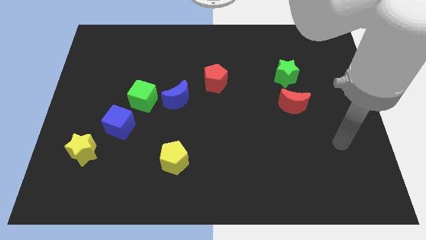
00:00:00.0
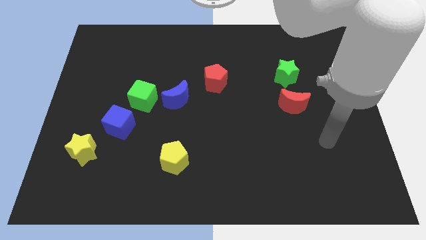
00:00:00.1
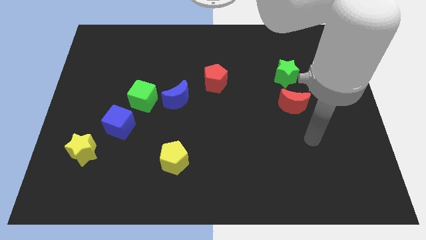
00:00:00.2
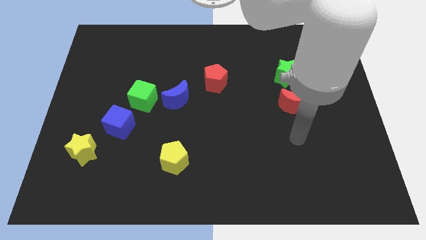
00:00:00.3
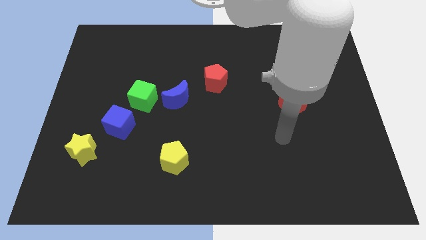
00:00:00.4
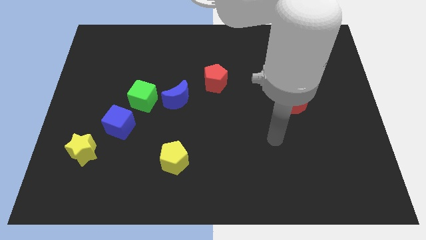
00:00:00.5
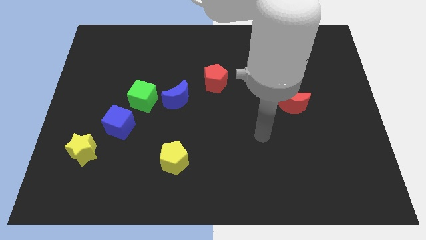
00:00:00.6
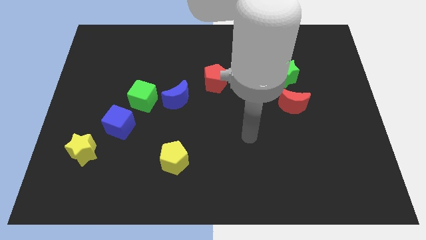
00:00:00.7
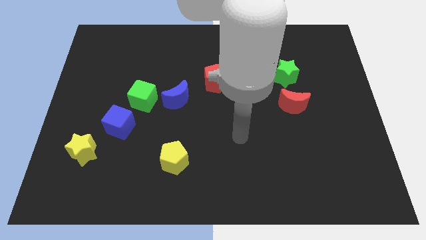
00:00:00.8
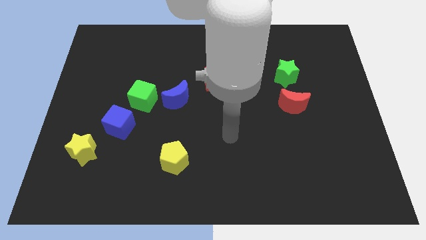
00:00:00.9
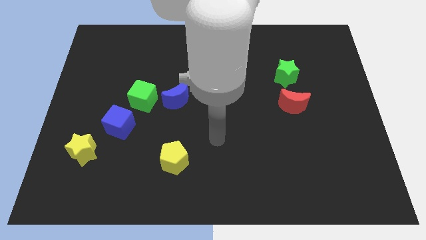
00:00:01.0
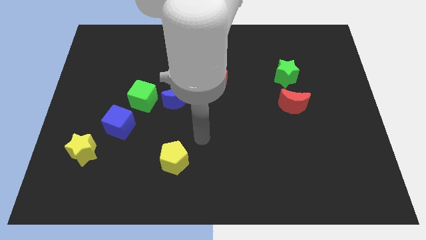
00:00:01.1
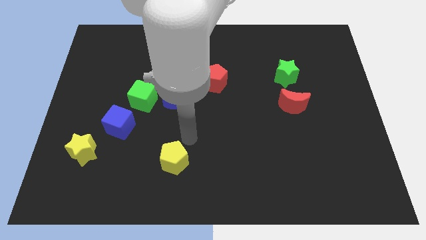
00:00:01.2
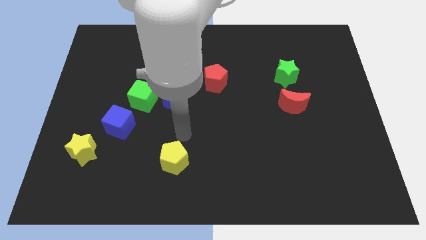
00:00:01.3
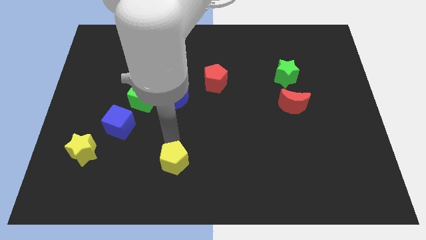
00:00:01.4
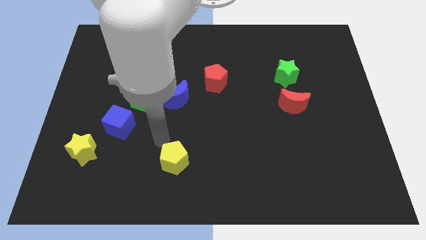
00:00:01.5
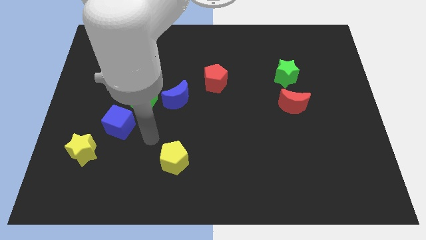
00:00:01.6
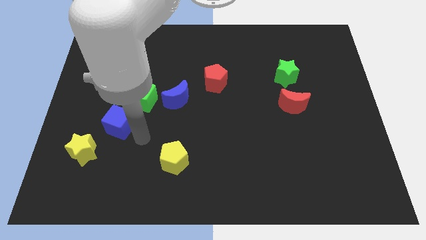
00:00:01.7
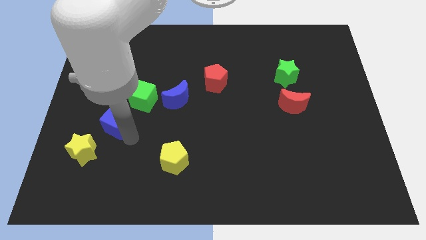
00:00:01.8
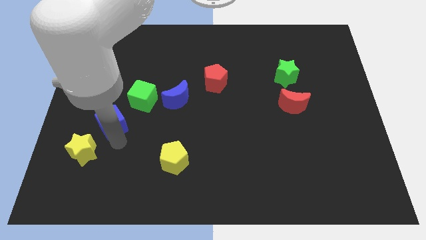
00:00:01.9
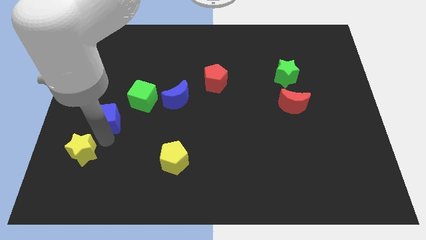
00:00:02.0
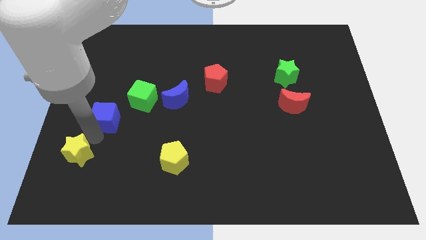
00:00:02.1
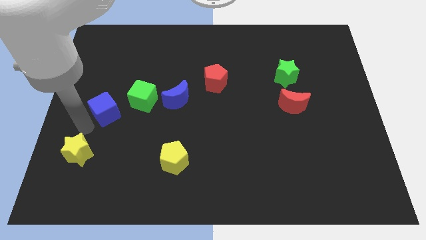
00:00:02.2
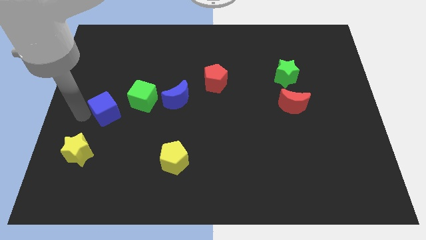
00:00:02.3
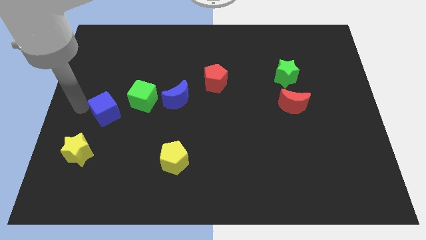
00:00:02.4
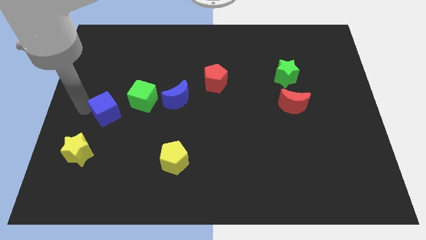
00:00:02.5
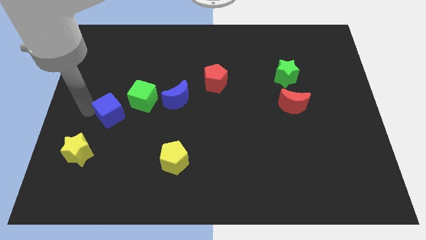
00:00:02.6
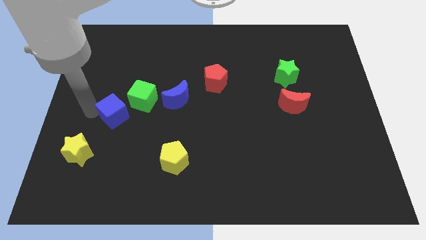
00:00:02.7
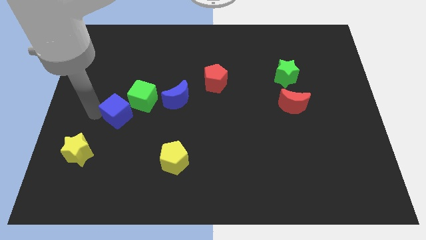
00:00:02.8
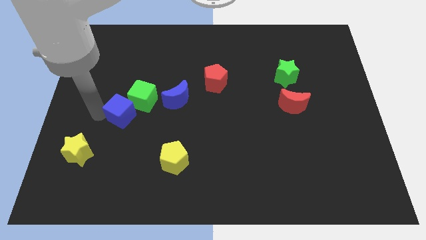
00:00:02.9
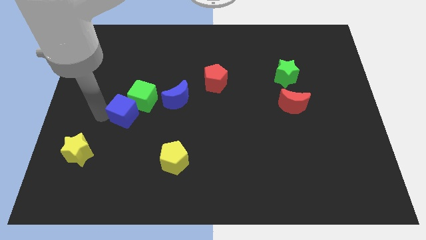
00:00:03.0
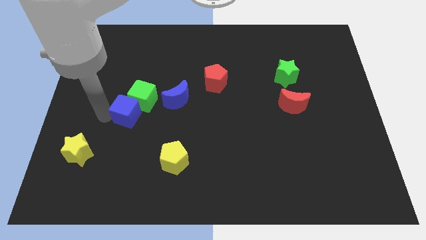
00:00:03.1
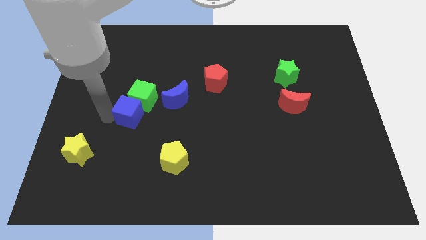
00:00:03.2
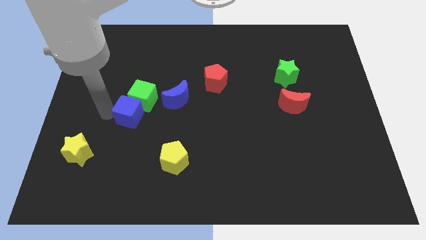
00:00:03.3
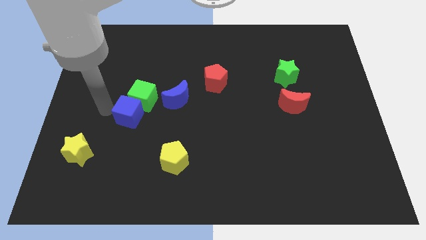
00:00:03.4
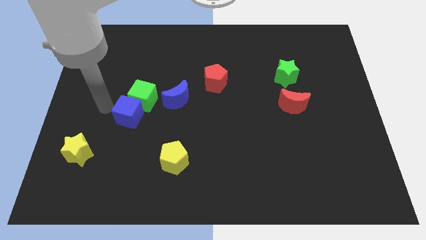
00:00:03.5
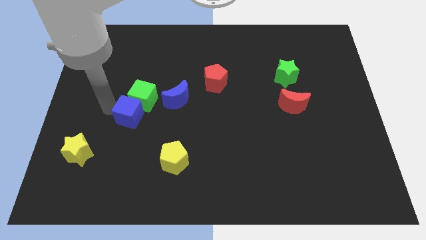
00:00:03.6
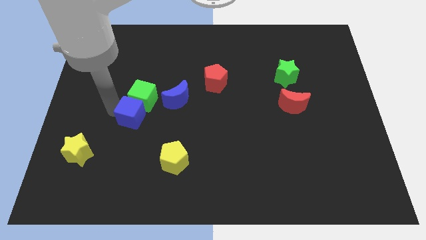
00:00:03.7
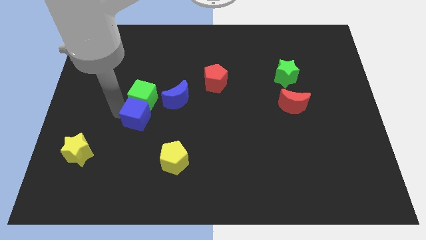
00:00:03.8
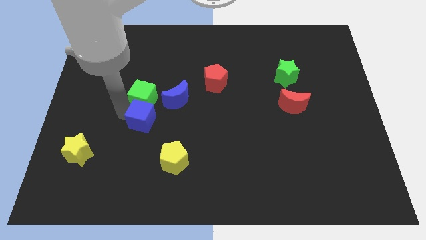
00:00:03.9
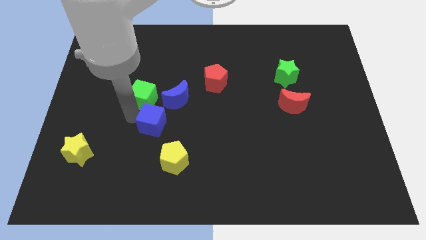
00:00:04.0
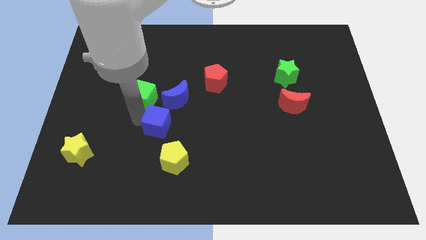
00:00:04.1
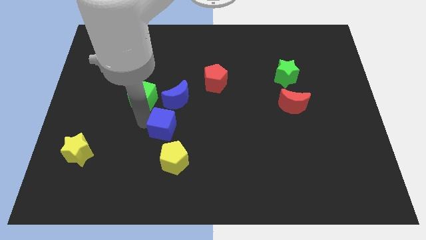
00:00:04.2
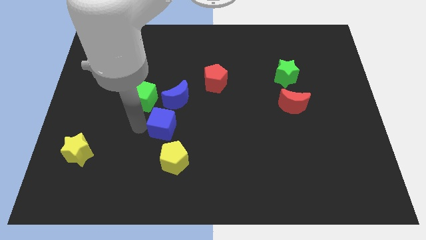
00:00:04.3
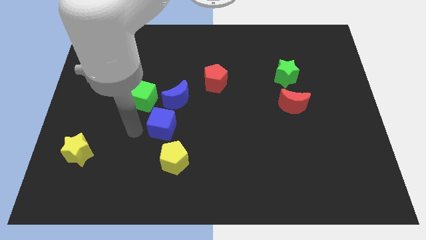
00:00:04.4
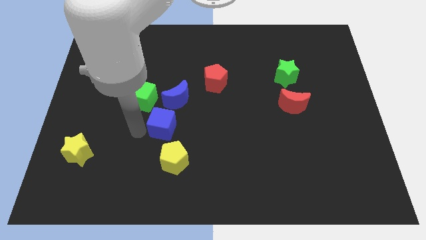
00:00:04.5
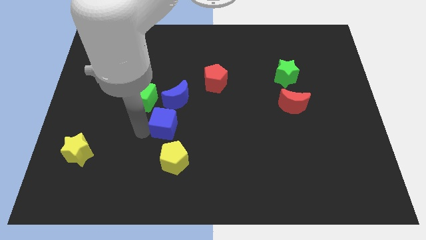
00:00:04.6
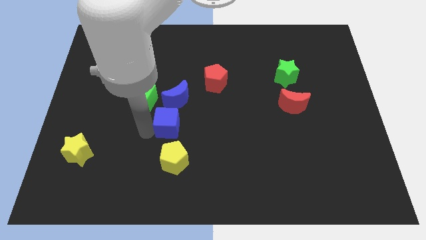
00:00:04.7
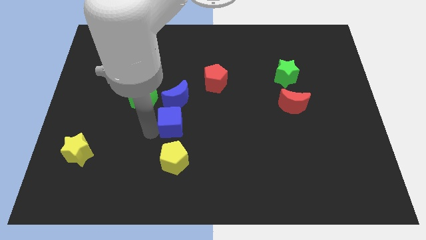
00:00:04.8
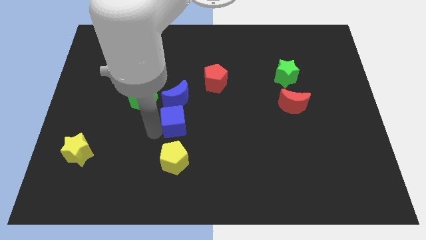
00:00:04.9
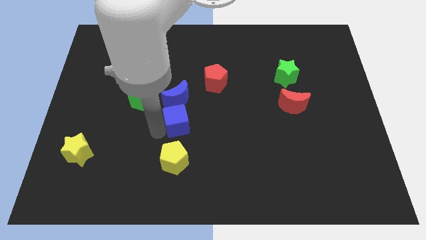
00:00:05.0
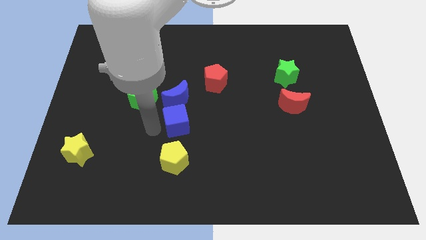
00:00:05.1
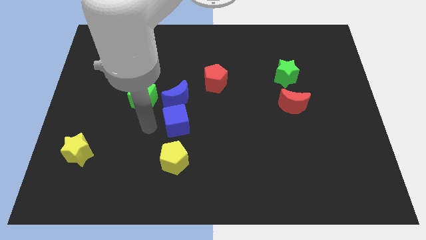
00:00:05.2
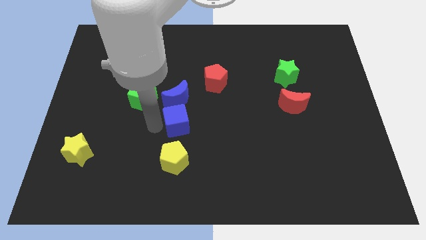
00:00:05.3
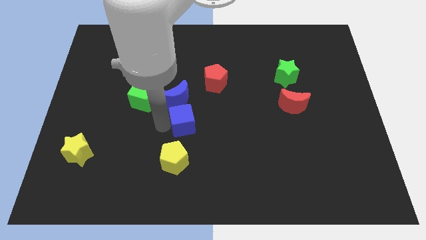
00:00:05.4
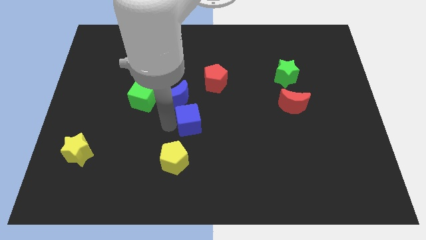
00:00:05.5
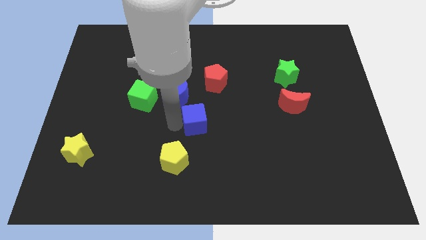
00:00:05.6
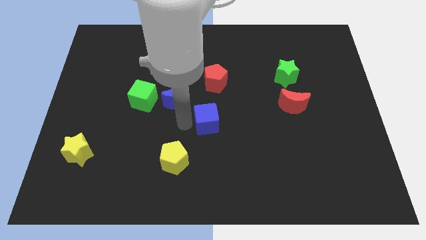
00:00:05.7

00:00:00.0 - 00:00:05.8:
push the blue cube right

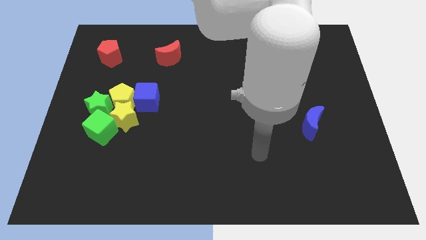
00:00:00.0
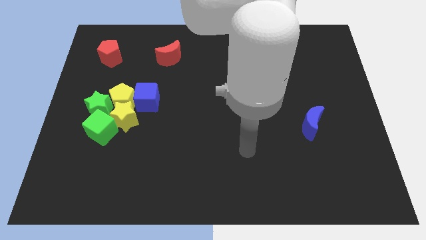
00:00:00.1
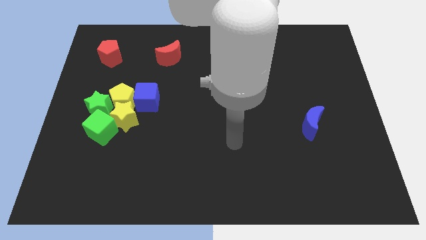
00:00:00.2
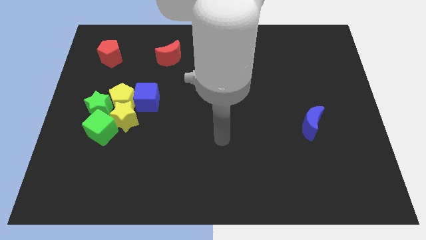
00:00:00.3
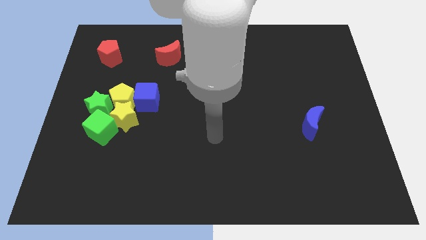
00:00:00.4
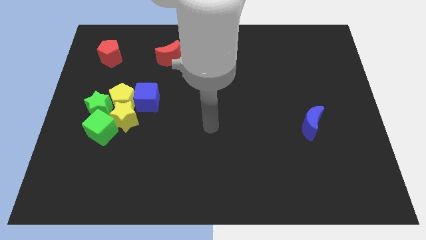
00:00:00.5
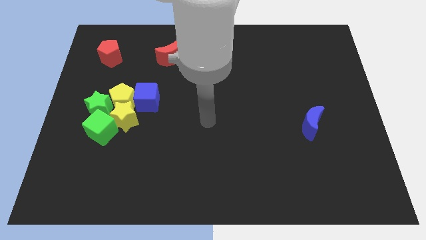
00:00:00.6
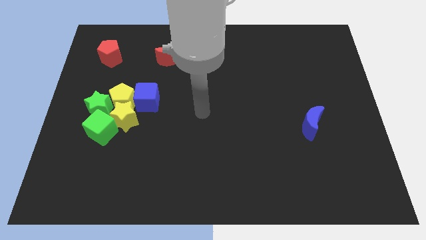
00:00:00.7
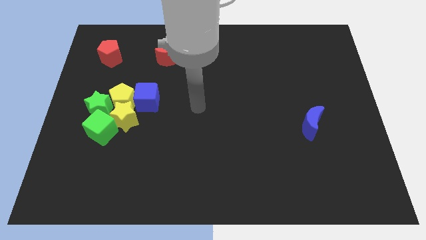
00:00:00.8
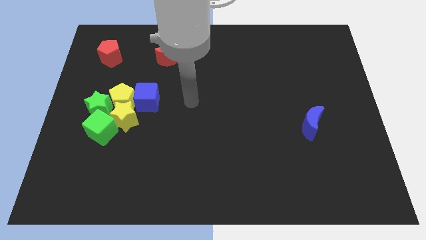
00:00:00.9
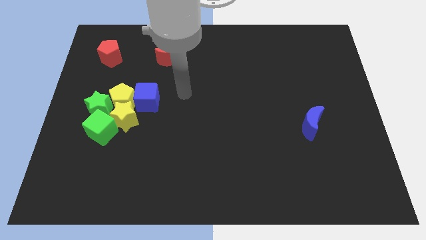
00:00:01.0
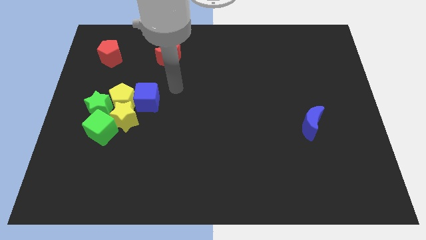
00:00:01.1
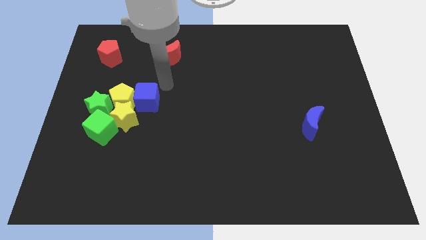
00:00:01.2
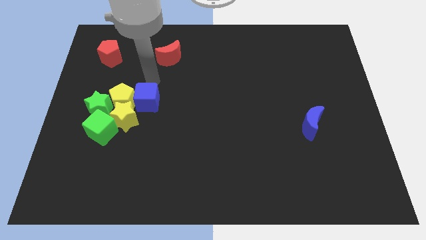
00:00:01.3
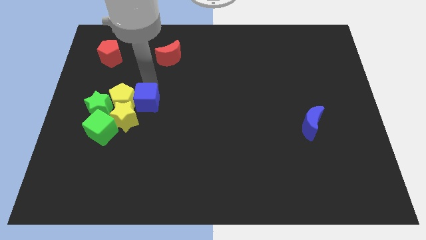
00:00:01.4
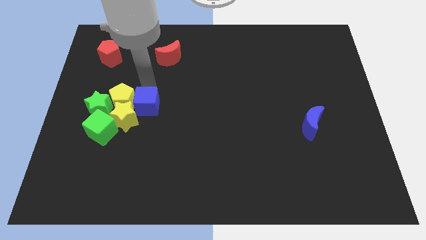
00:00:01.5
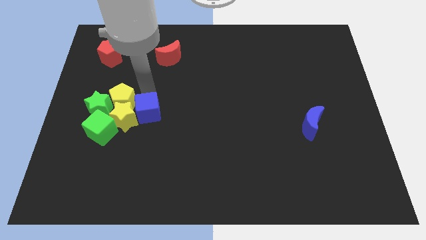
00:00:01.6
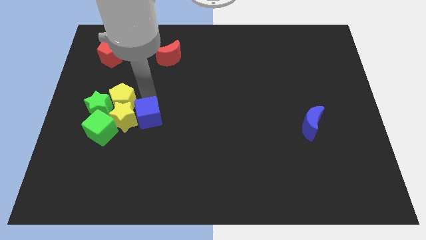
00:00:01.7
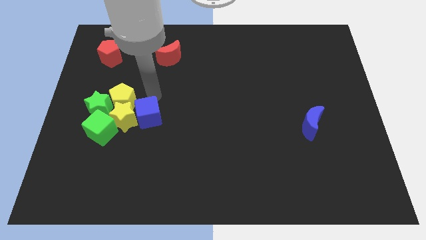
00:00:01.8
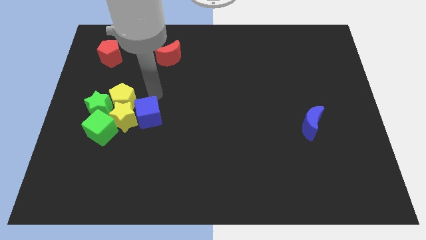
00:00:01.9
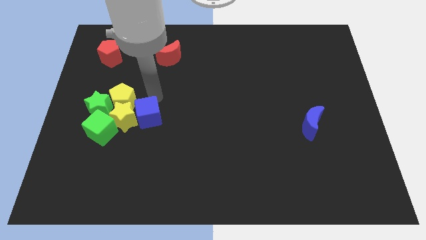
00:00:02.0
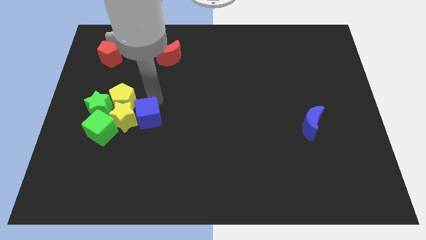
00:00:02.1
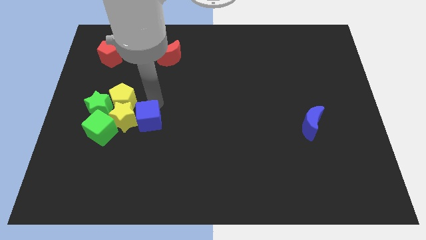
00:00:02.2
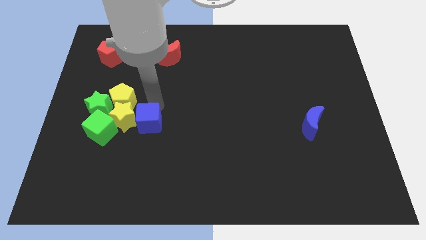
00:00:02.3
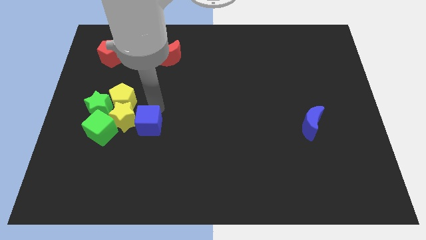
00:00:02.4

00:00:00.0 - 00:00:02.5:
slightly slide the blue cube downwards
